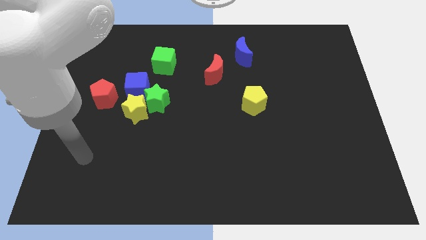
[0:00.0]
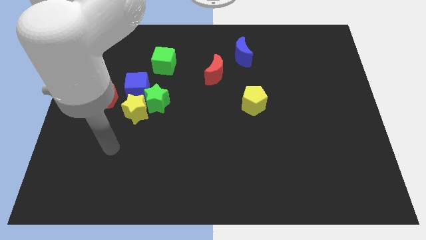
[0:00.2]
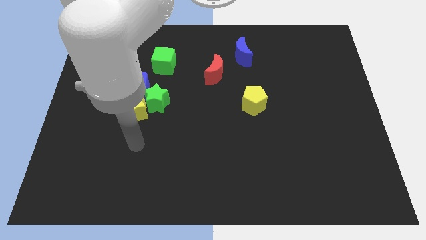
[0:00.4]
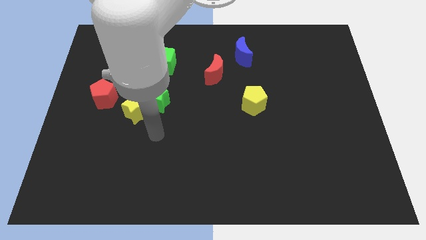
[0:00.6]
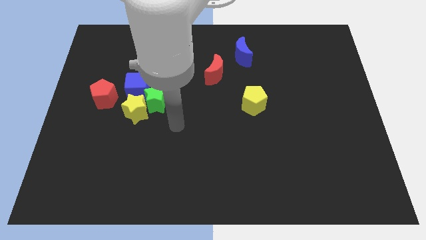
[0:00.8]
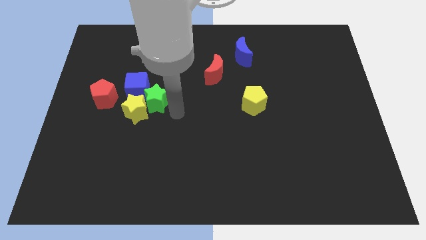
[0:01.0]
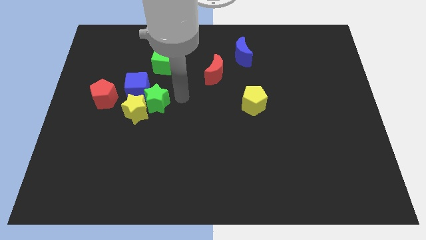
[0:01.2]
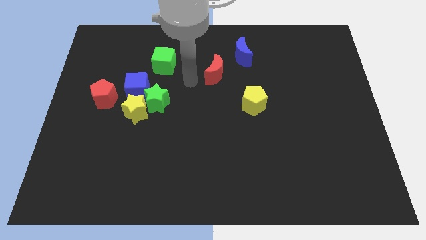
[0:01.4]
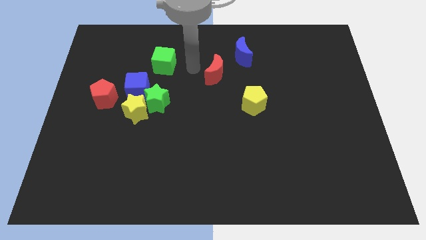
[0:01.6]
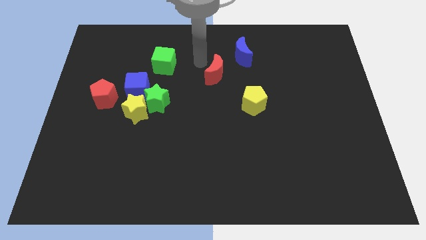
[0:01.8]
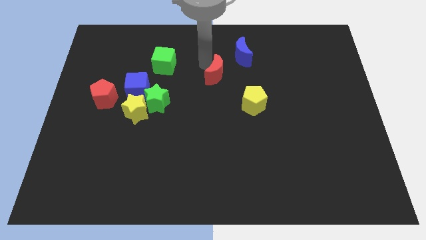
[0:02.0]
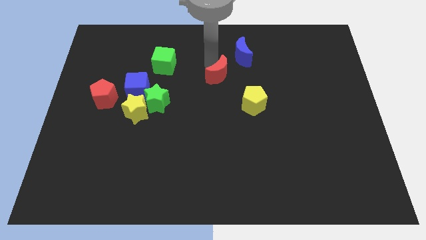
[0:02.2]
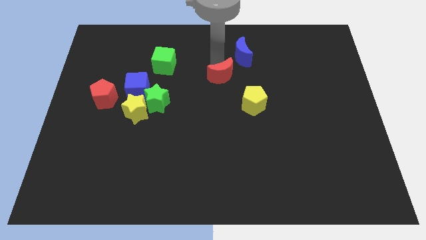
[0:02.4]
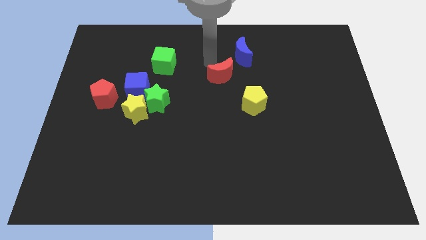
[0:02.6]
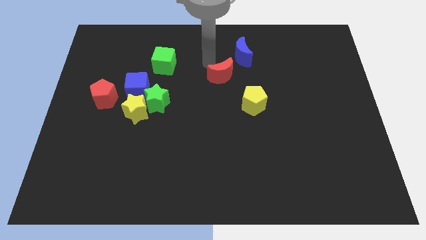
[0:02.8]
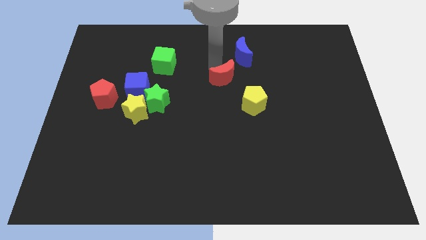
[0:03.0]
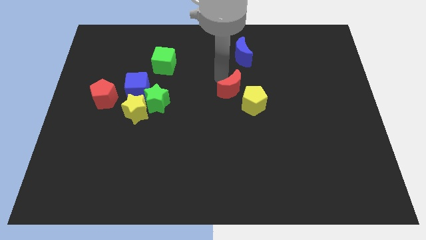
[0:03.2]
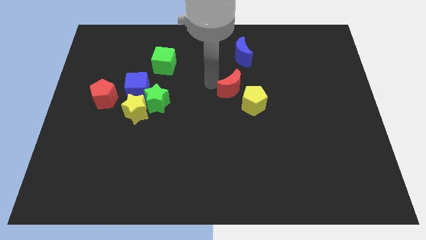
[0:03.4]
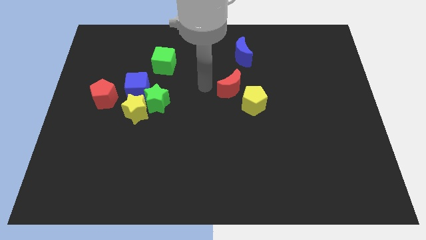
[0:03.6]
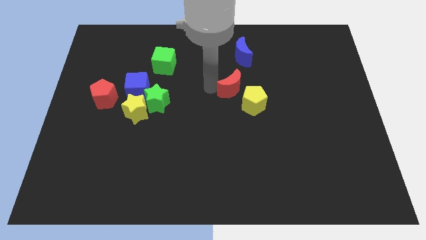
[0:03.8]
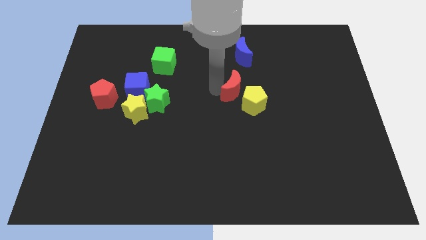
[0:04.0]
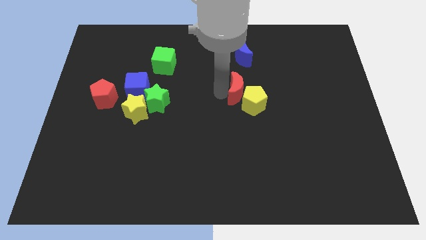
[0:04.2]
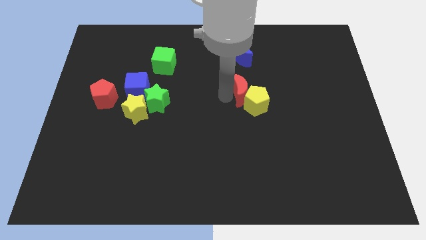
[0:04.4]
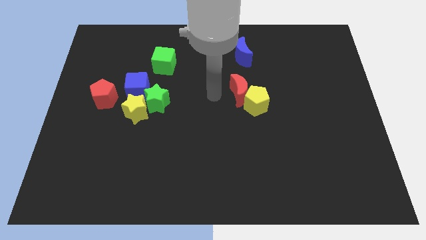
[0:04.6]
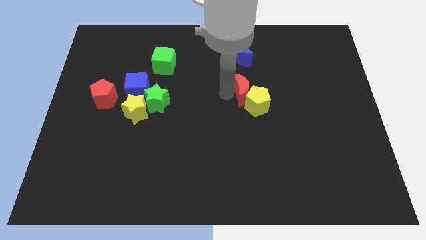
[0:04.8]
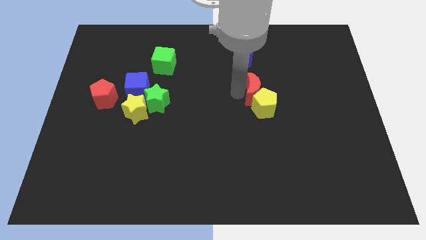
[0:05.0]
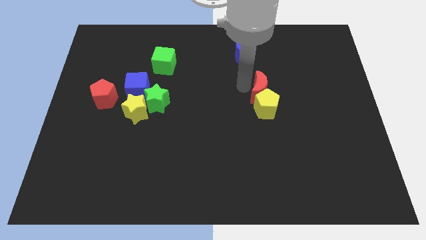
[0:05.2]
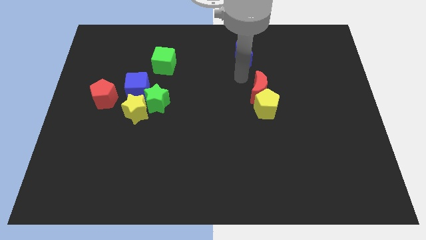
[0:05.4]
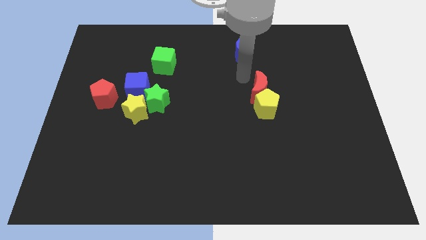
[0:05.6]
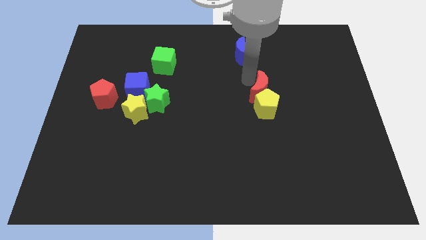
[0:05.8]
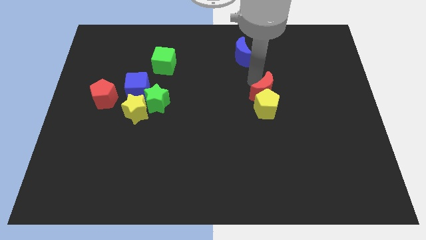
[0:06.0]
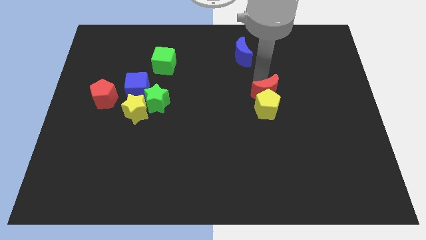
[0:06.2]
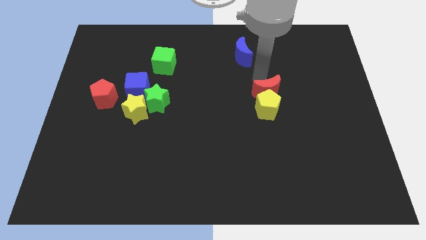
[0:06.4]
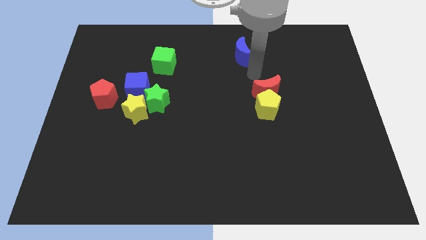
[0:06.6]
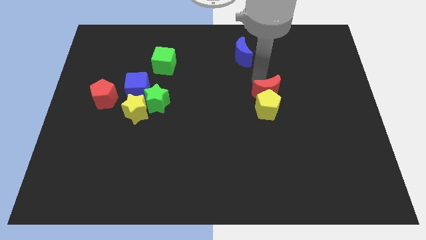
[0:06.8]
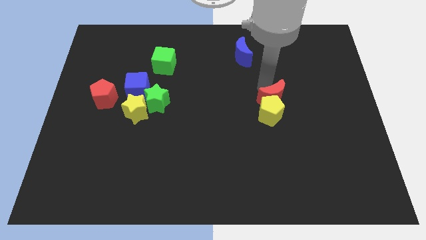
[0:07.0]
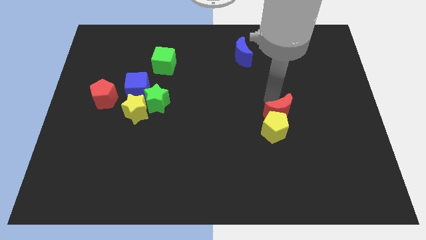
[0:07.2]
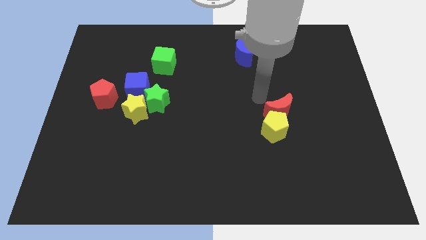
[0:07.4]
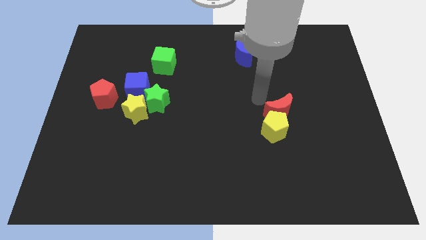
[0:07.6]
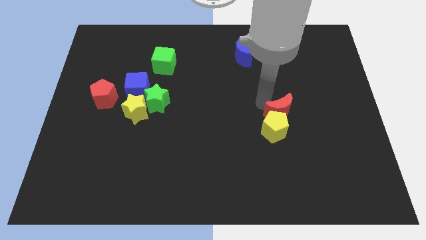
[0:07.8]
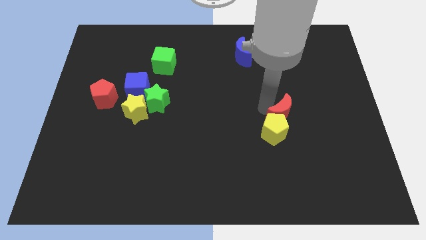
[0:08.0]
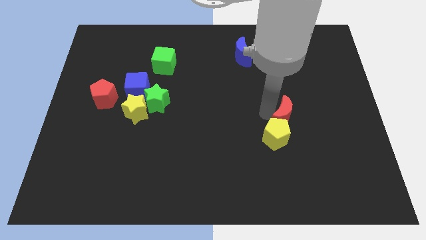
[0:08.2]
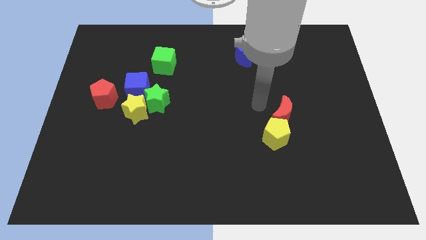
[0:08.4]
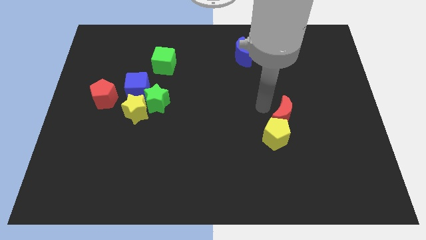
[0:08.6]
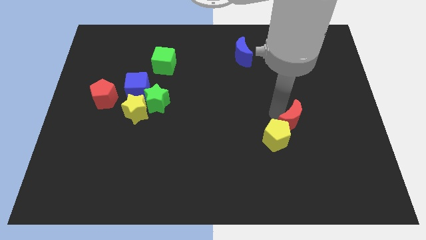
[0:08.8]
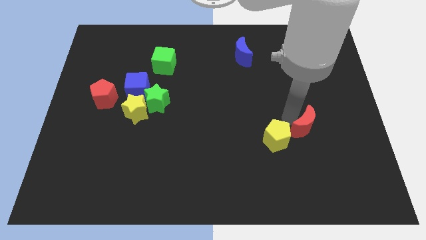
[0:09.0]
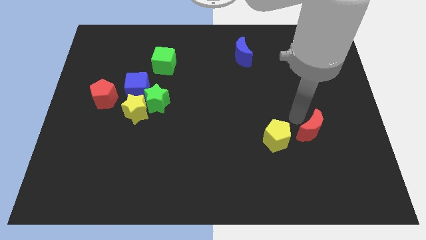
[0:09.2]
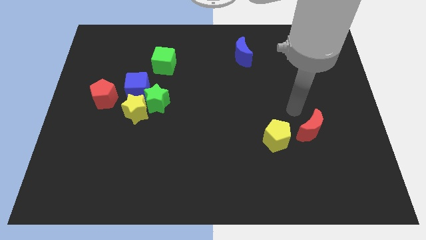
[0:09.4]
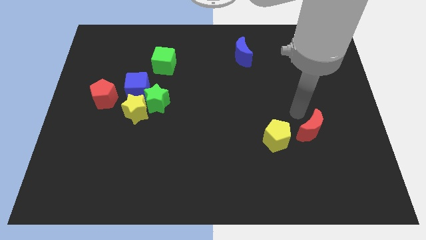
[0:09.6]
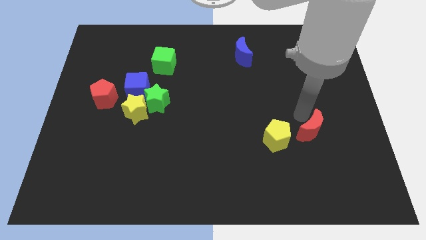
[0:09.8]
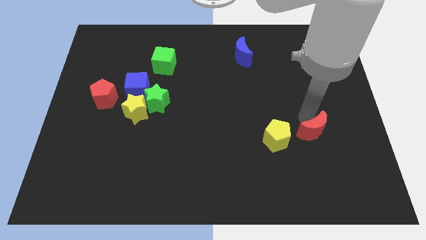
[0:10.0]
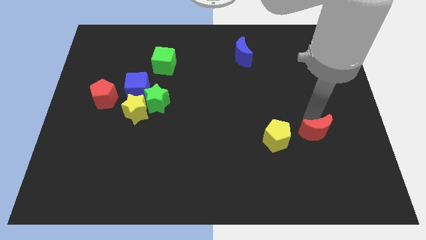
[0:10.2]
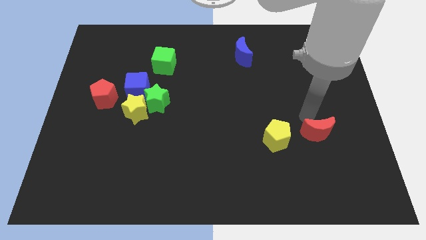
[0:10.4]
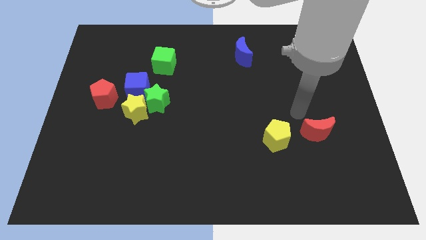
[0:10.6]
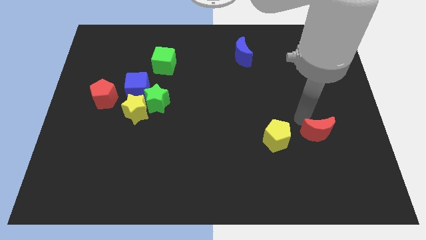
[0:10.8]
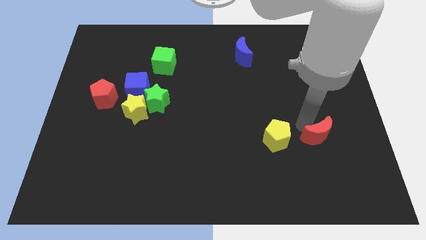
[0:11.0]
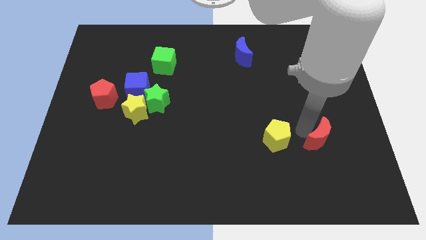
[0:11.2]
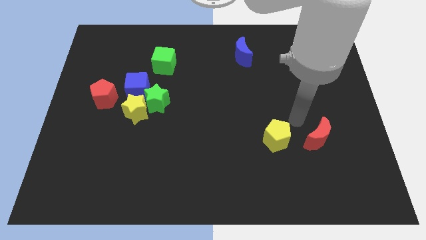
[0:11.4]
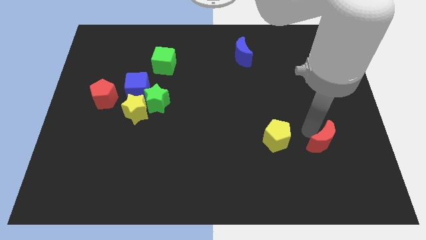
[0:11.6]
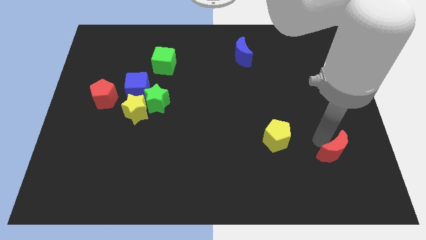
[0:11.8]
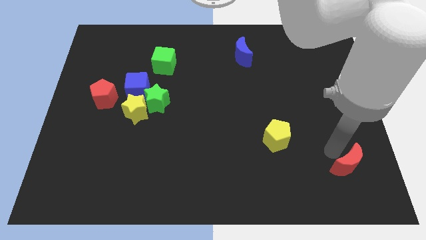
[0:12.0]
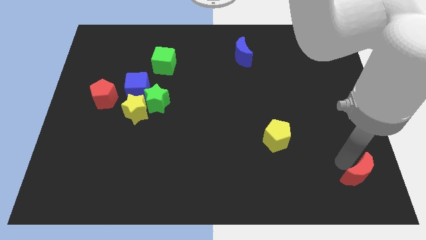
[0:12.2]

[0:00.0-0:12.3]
move the red moon to the bottom right
